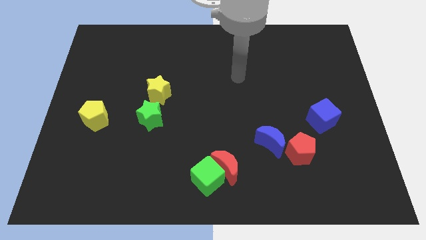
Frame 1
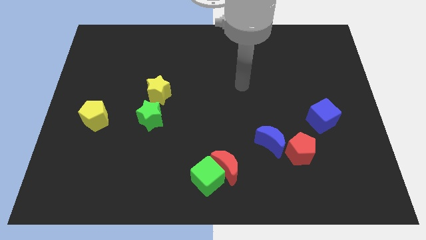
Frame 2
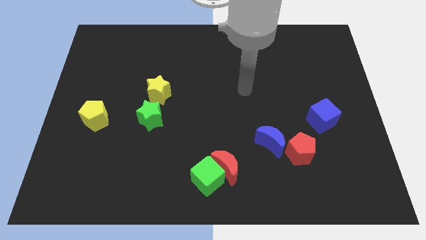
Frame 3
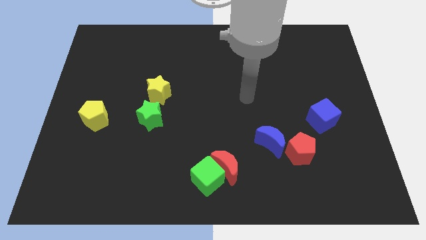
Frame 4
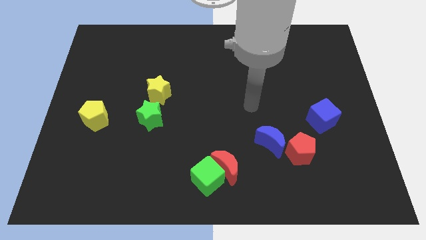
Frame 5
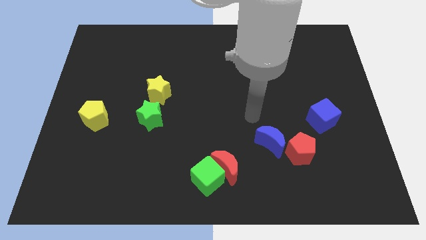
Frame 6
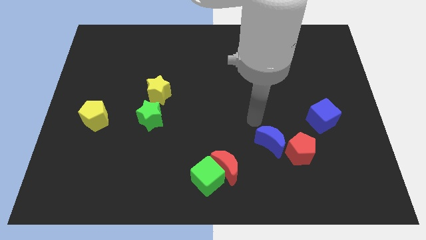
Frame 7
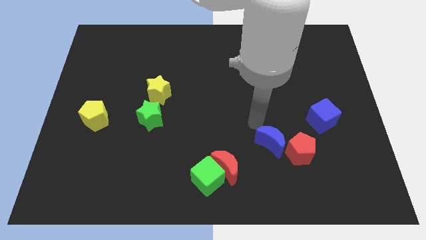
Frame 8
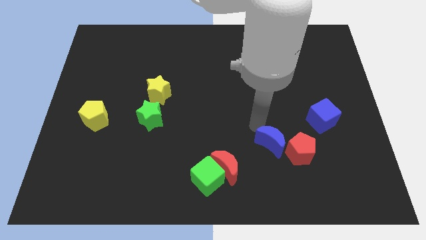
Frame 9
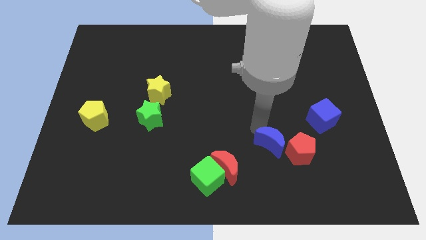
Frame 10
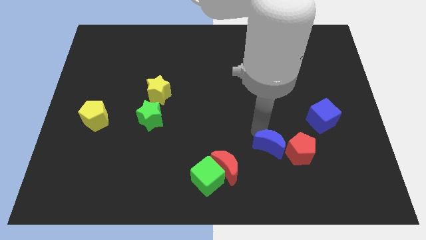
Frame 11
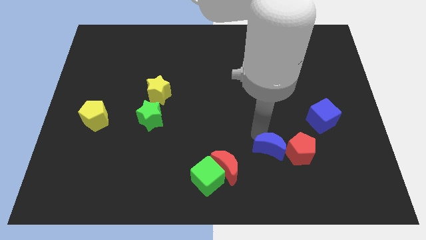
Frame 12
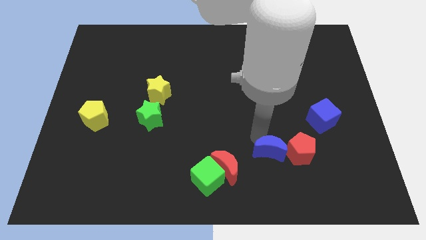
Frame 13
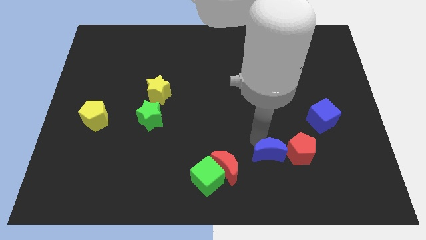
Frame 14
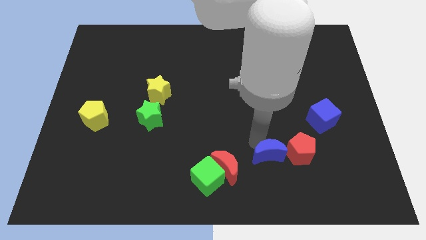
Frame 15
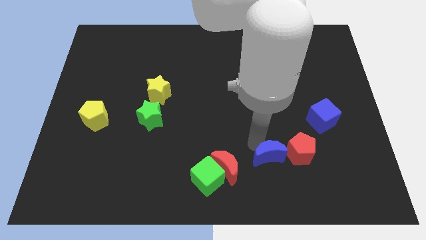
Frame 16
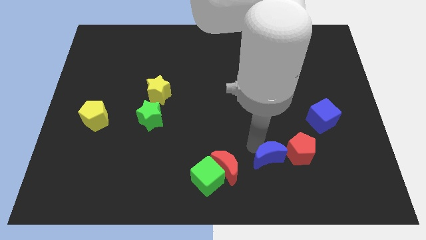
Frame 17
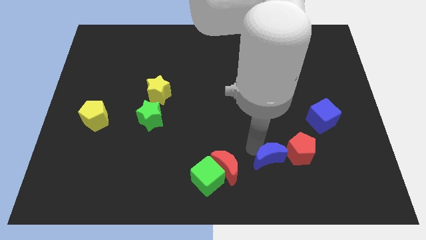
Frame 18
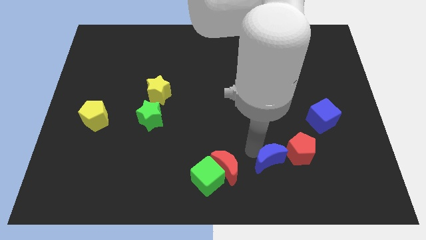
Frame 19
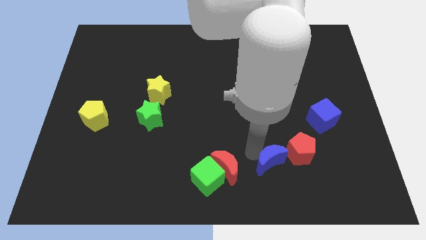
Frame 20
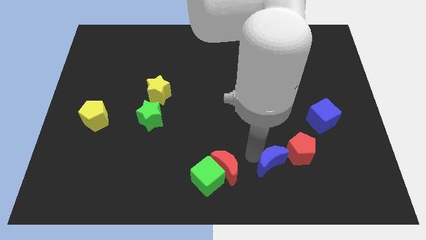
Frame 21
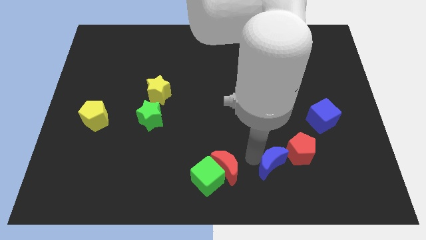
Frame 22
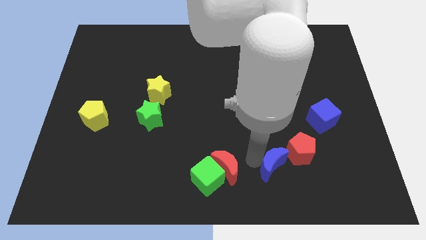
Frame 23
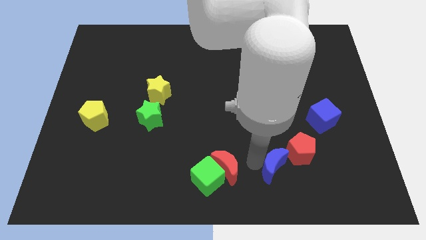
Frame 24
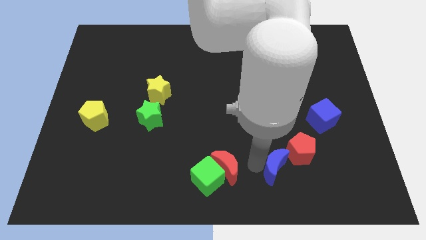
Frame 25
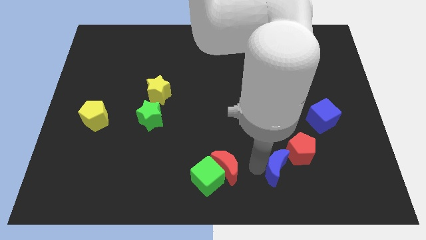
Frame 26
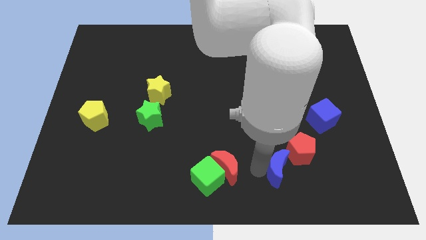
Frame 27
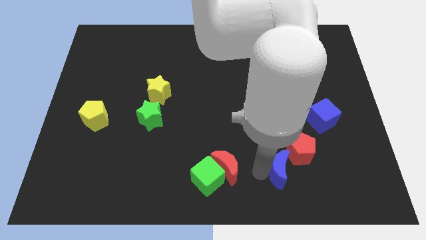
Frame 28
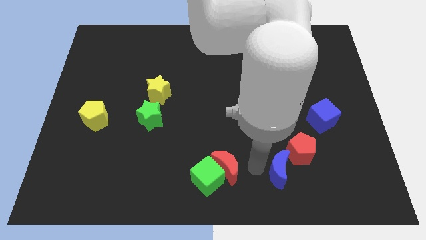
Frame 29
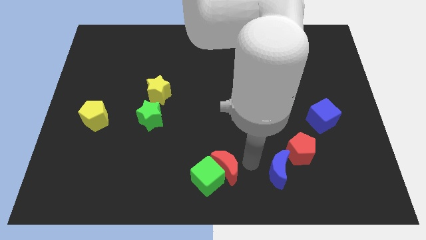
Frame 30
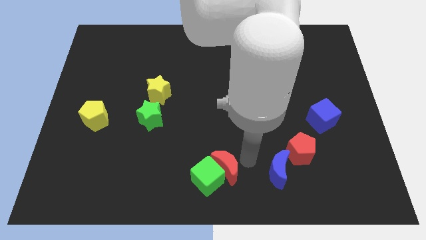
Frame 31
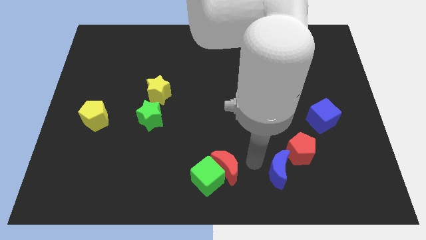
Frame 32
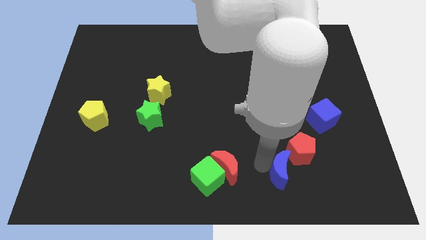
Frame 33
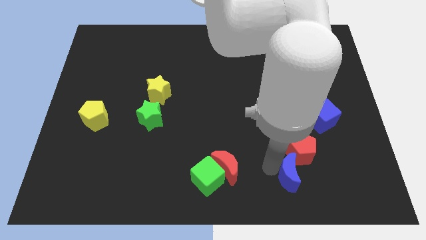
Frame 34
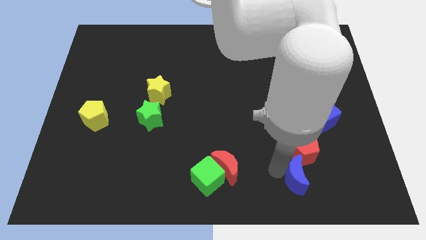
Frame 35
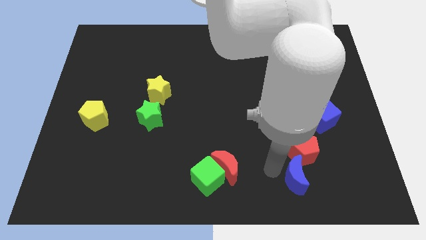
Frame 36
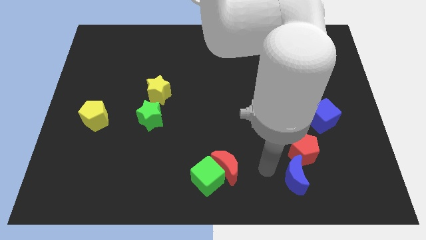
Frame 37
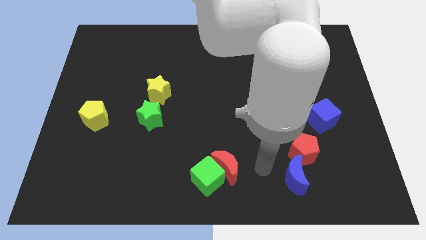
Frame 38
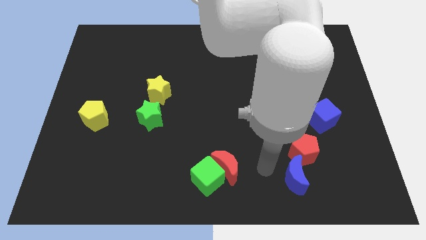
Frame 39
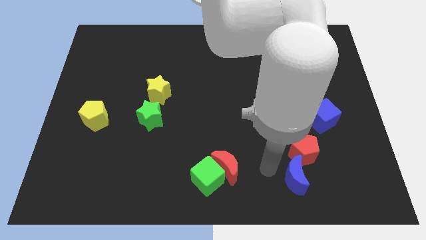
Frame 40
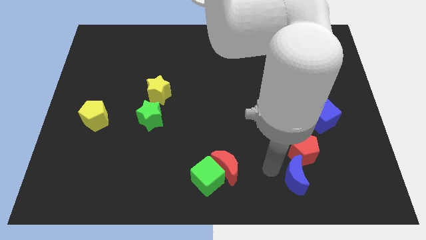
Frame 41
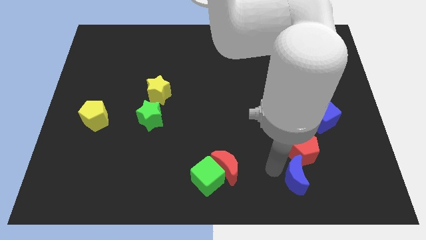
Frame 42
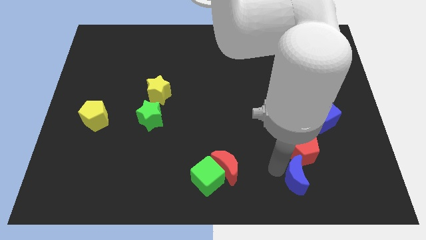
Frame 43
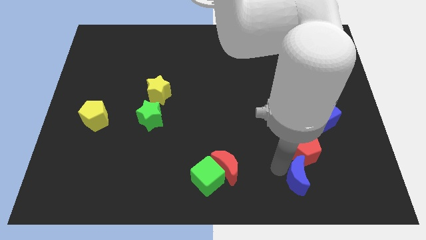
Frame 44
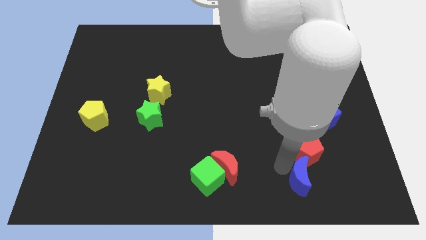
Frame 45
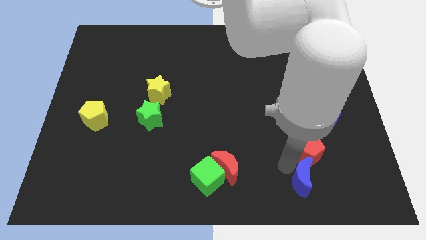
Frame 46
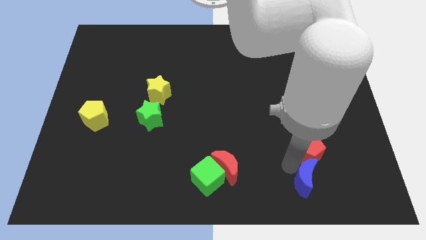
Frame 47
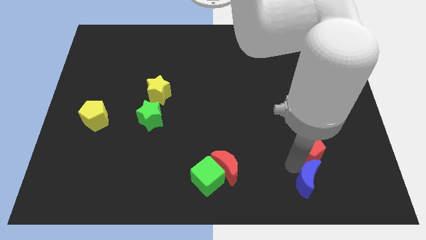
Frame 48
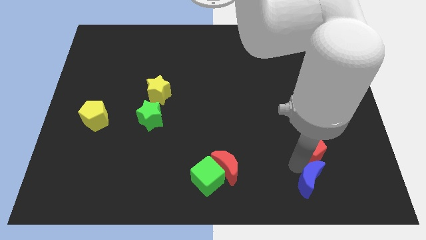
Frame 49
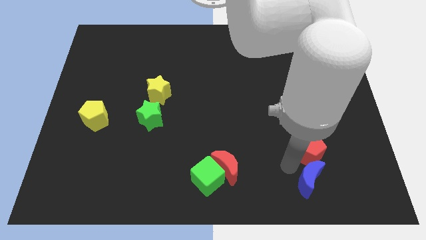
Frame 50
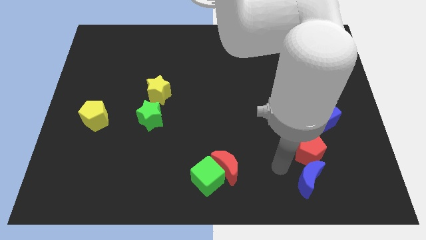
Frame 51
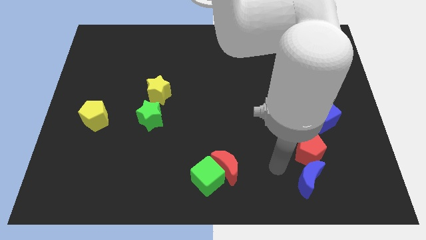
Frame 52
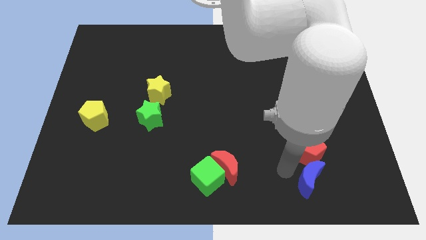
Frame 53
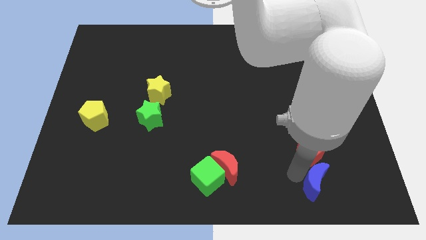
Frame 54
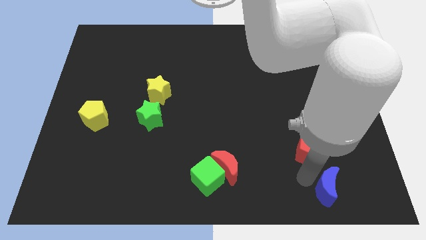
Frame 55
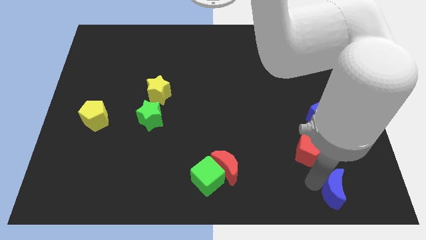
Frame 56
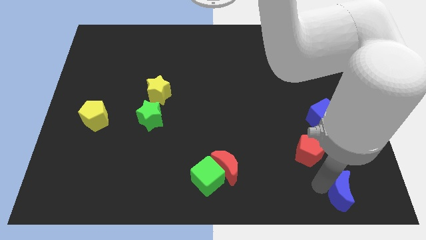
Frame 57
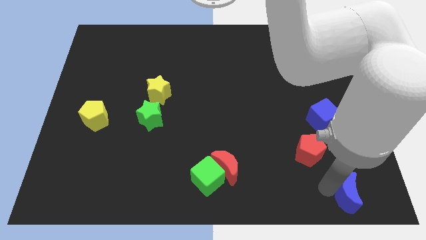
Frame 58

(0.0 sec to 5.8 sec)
move the blue moon to the lower right corner
